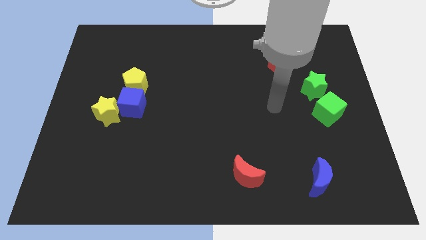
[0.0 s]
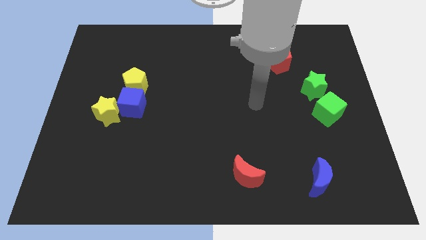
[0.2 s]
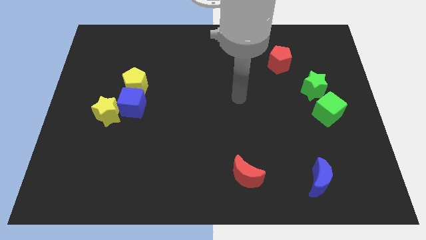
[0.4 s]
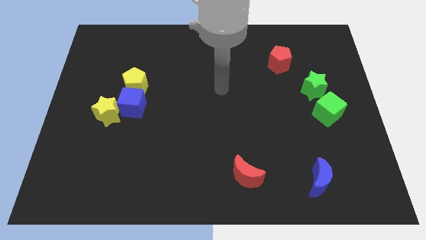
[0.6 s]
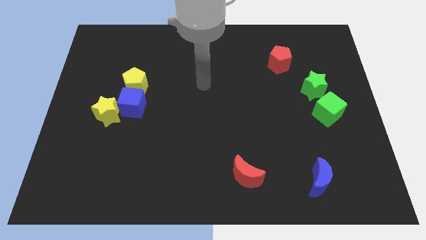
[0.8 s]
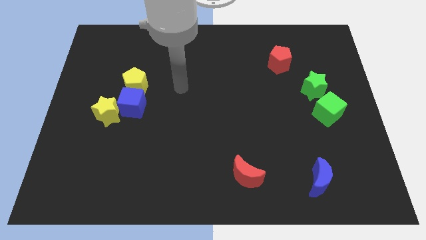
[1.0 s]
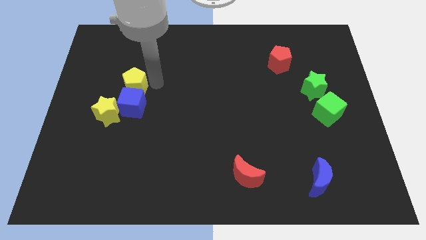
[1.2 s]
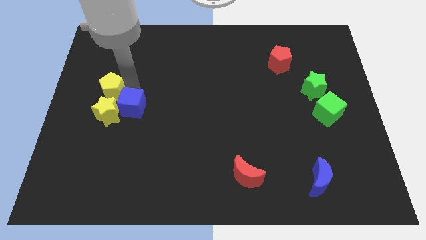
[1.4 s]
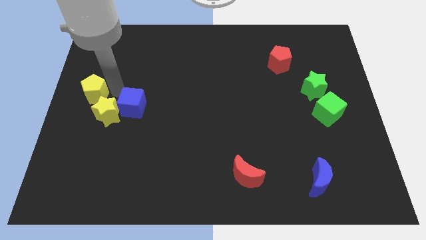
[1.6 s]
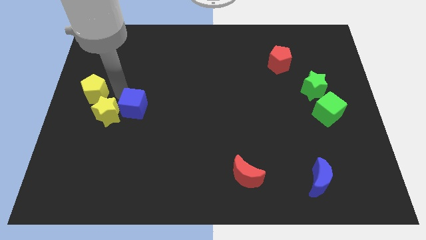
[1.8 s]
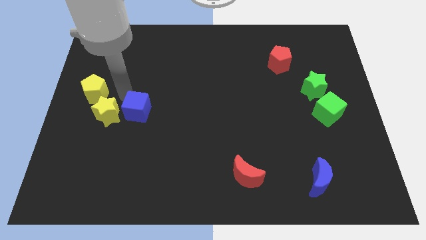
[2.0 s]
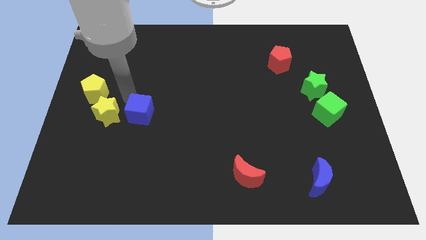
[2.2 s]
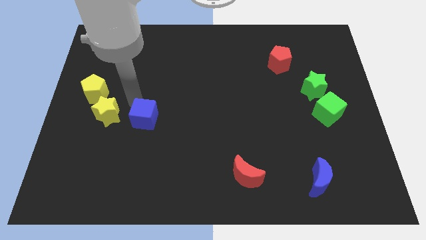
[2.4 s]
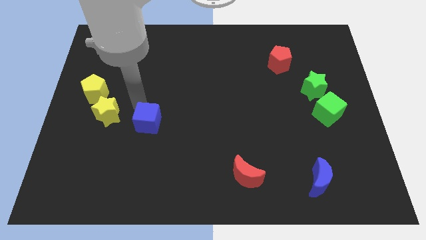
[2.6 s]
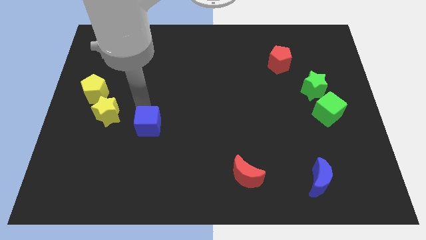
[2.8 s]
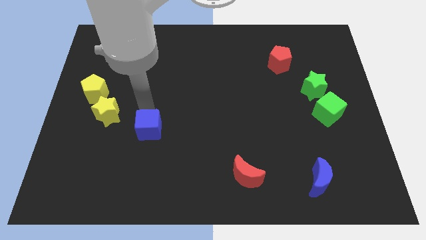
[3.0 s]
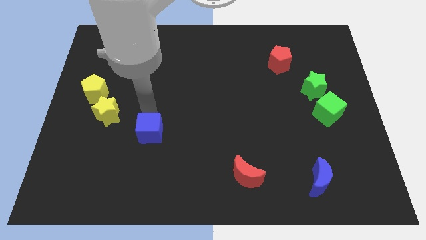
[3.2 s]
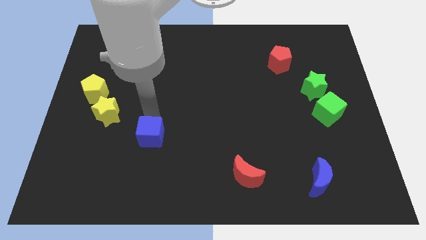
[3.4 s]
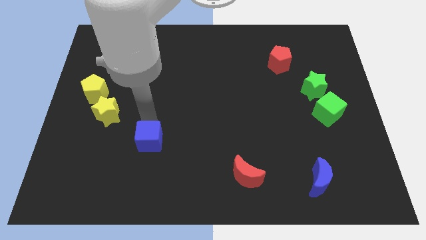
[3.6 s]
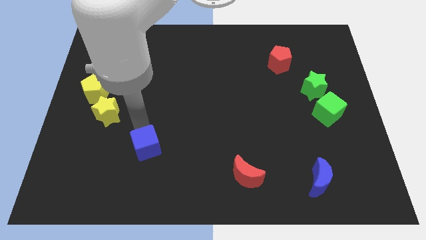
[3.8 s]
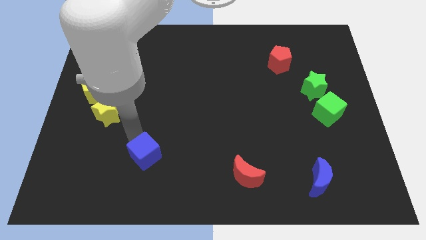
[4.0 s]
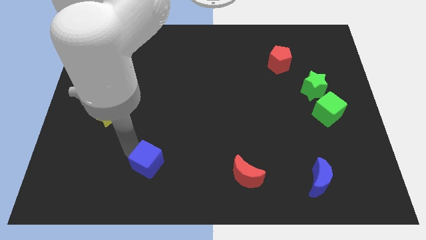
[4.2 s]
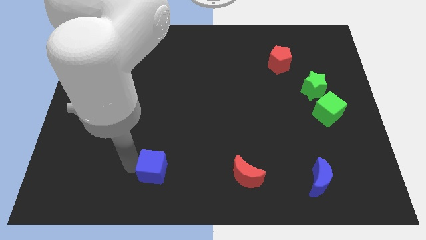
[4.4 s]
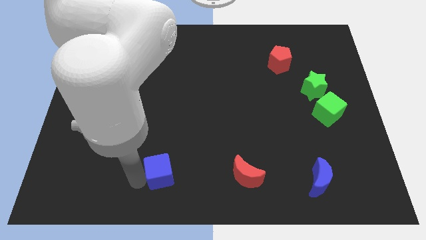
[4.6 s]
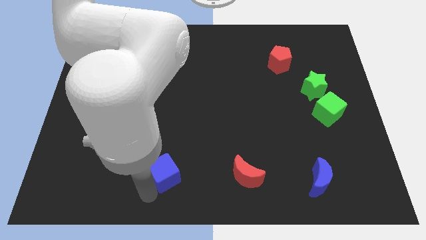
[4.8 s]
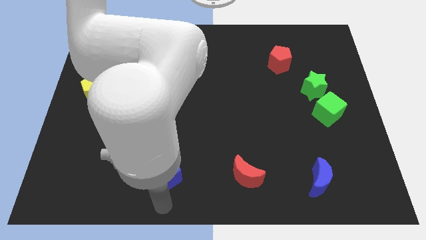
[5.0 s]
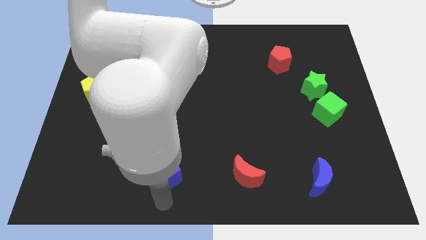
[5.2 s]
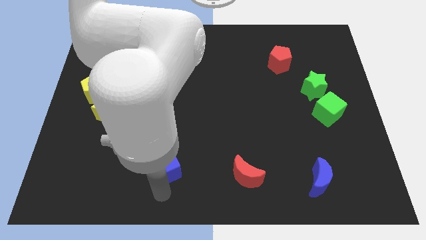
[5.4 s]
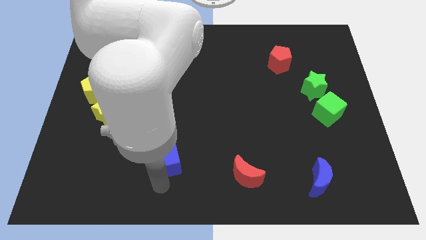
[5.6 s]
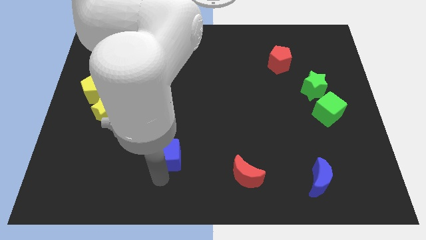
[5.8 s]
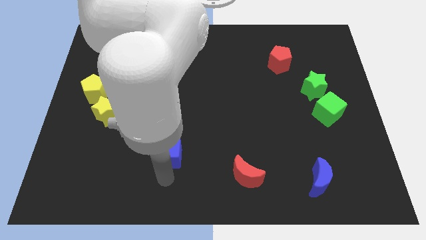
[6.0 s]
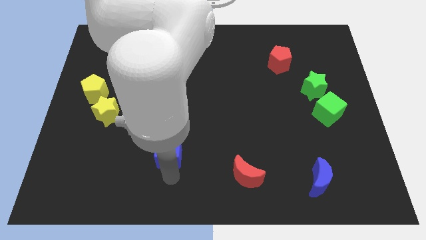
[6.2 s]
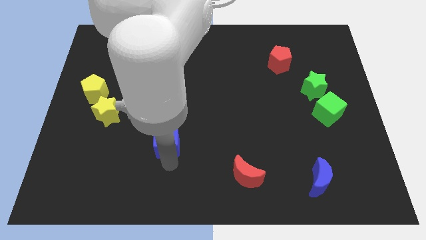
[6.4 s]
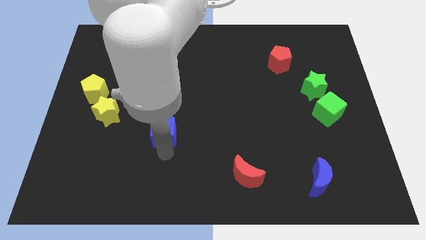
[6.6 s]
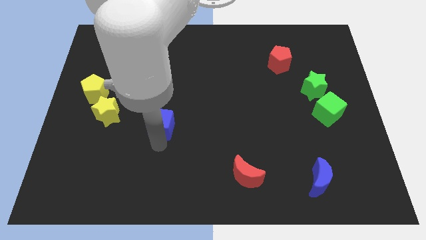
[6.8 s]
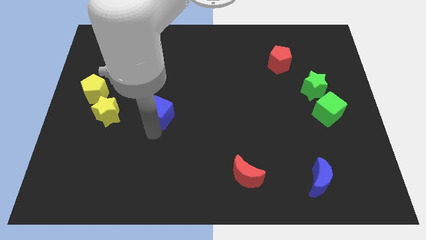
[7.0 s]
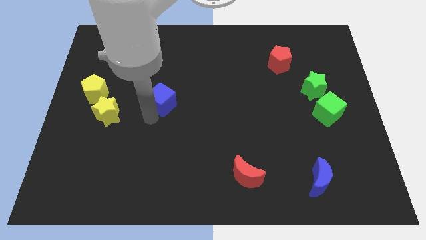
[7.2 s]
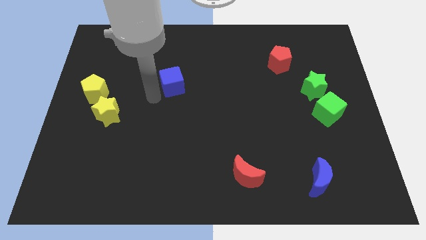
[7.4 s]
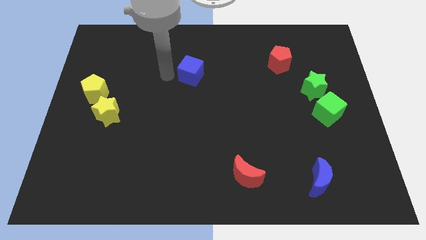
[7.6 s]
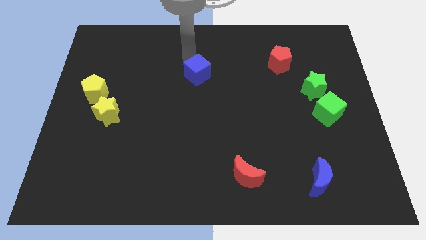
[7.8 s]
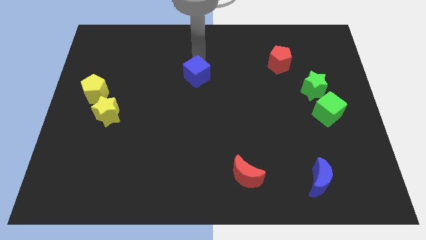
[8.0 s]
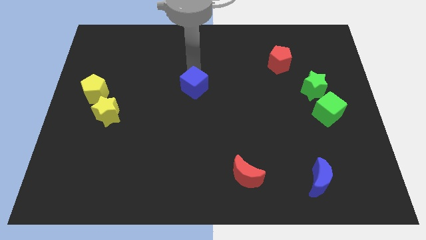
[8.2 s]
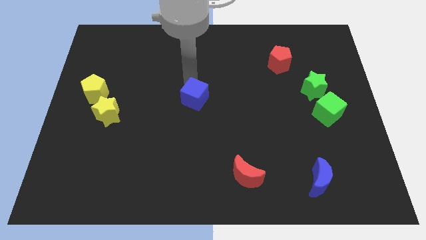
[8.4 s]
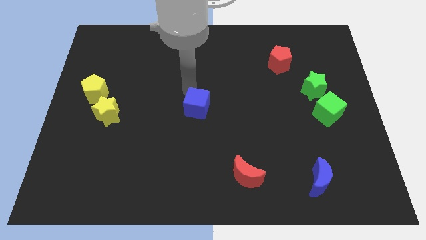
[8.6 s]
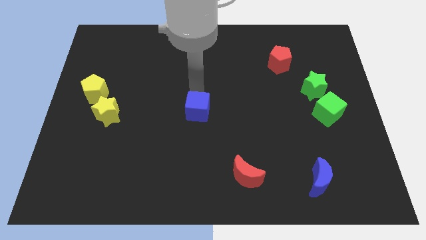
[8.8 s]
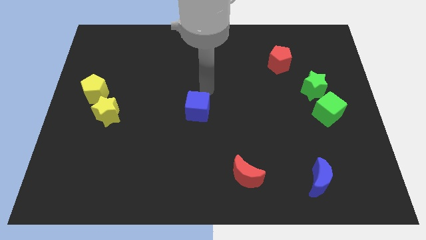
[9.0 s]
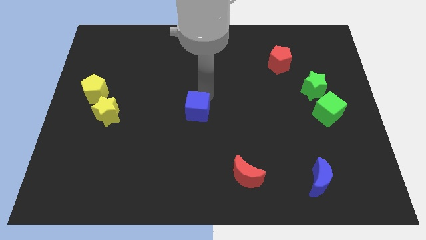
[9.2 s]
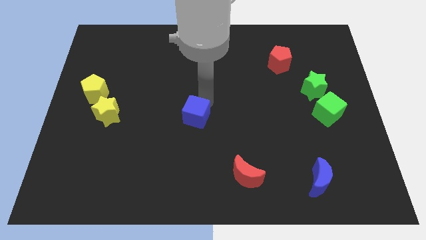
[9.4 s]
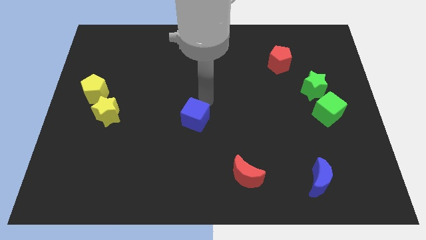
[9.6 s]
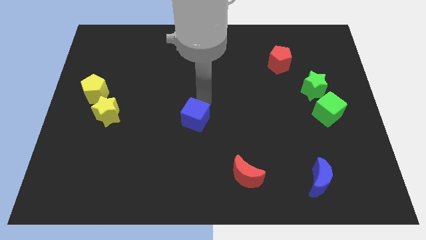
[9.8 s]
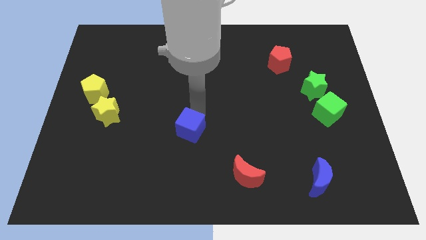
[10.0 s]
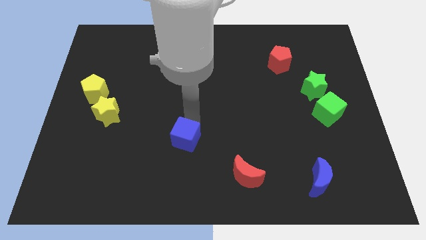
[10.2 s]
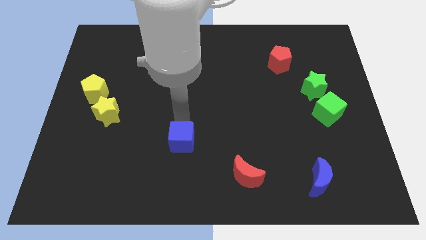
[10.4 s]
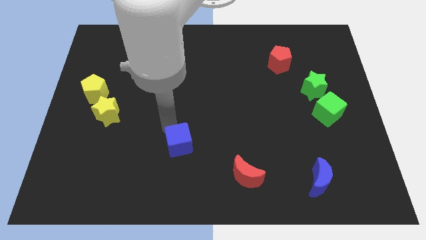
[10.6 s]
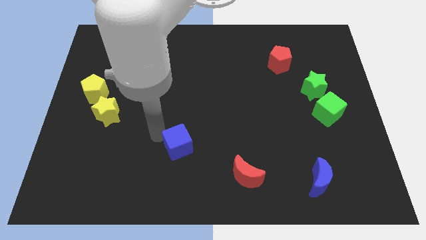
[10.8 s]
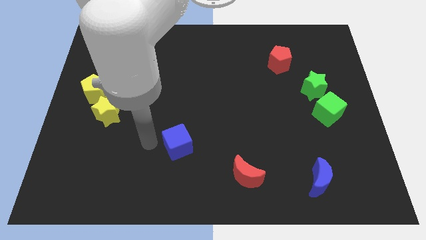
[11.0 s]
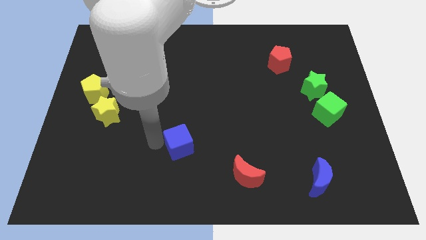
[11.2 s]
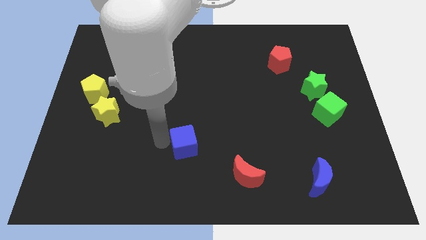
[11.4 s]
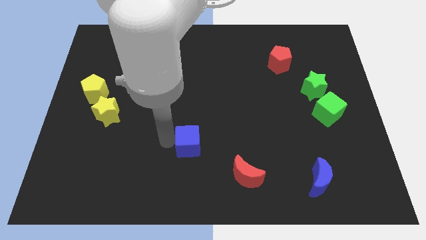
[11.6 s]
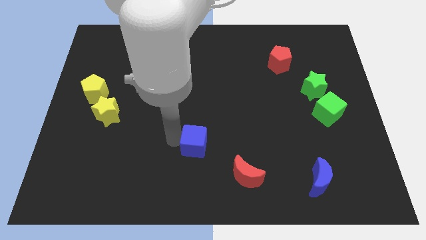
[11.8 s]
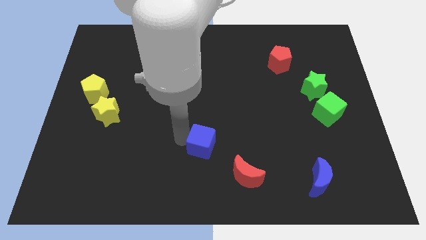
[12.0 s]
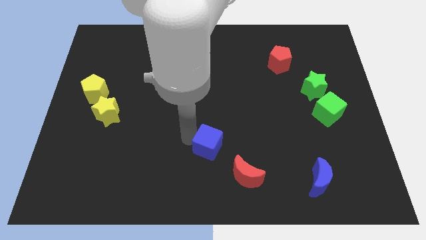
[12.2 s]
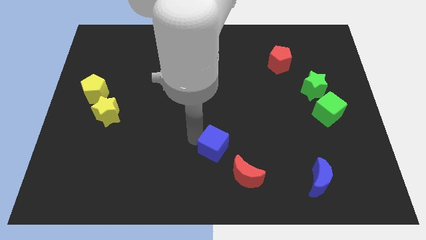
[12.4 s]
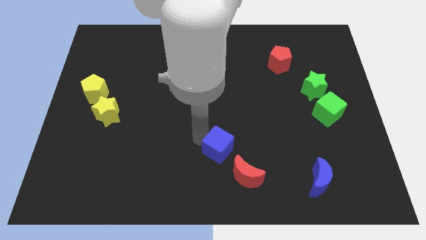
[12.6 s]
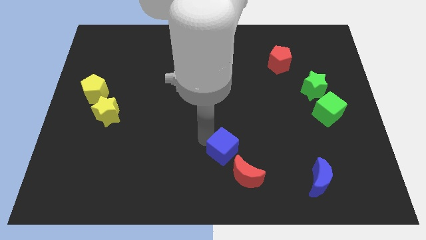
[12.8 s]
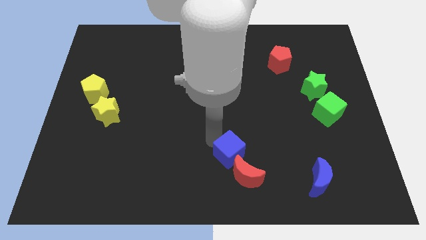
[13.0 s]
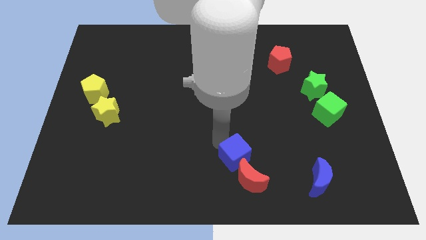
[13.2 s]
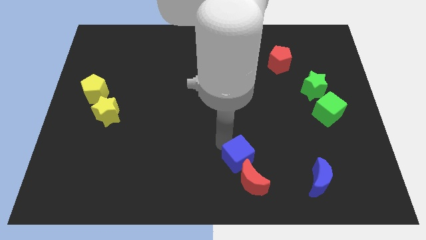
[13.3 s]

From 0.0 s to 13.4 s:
slide the blue cube close to the red moon

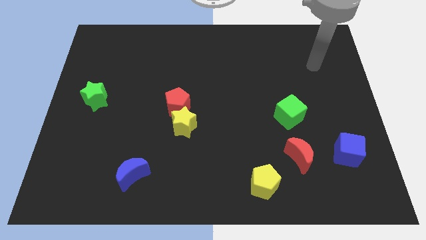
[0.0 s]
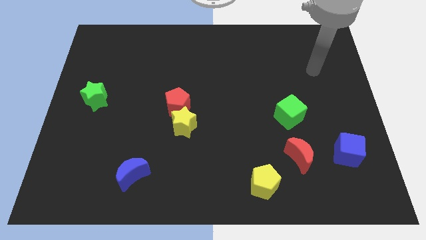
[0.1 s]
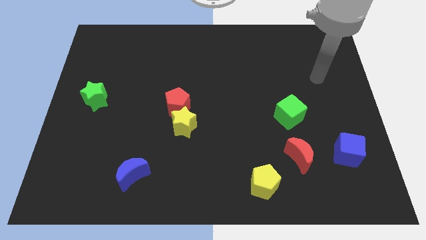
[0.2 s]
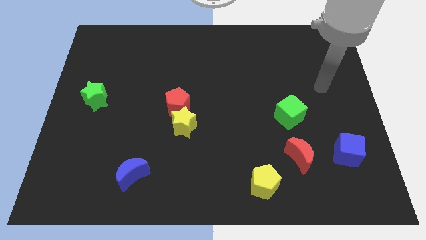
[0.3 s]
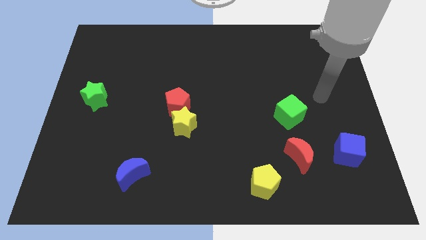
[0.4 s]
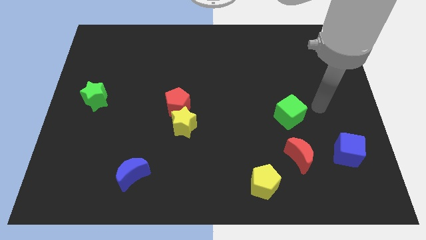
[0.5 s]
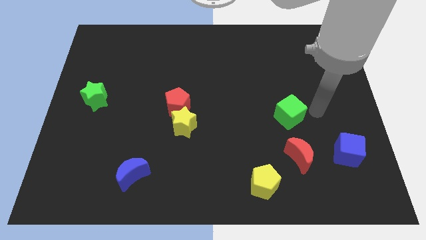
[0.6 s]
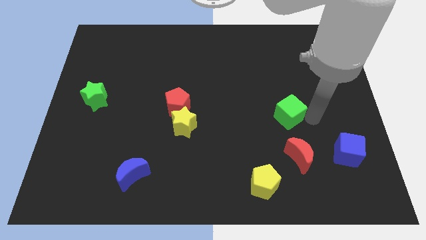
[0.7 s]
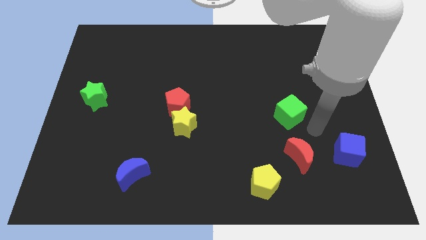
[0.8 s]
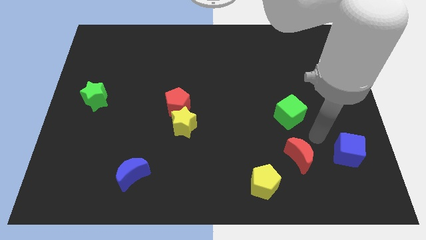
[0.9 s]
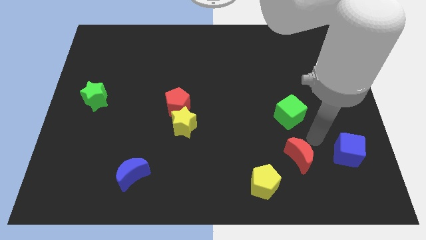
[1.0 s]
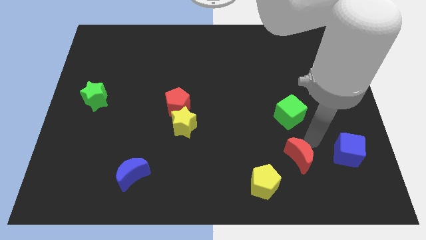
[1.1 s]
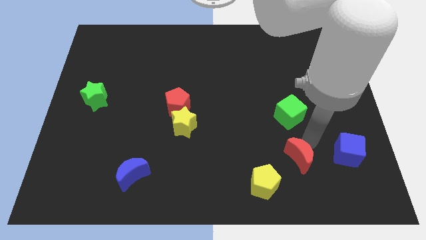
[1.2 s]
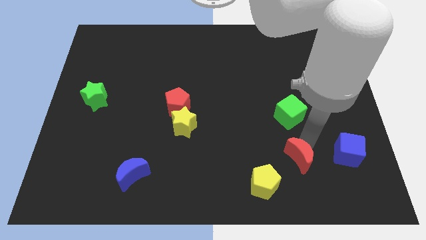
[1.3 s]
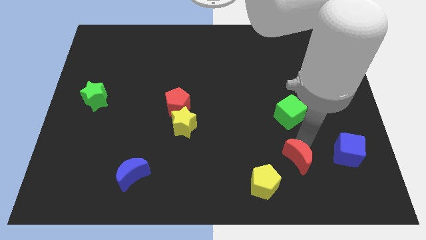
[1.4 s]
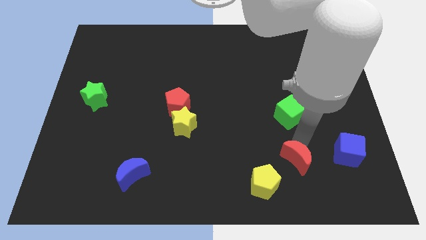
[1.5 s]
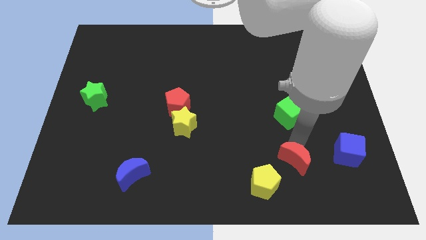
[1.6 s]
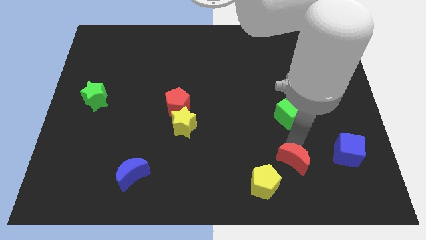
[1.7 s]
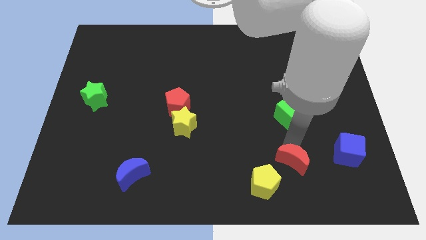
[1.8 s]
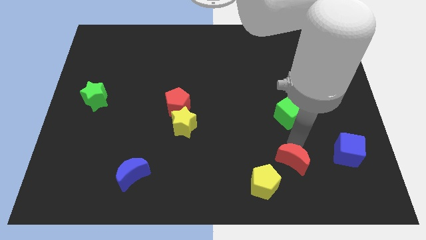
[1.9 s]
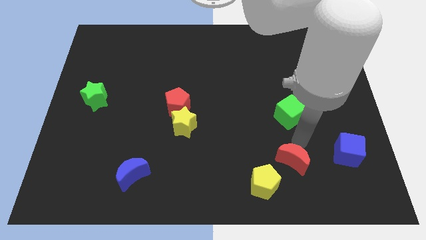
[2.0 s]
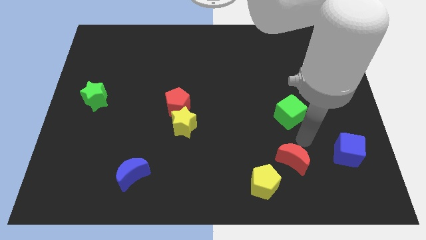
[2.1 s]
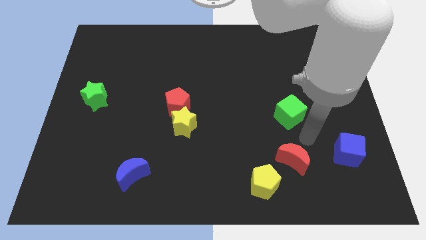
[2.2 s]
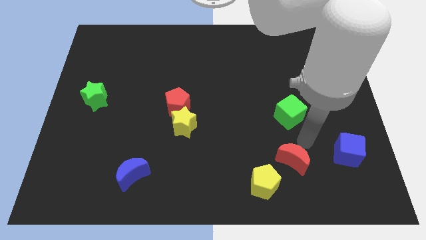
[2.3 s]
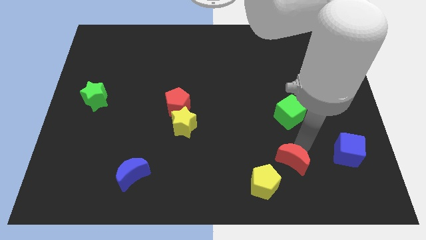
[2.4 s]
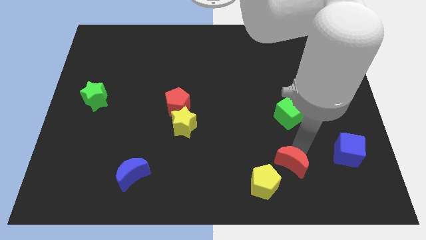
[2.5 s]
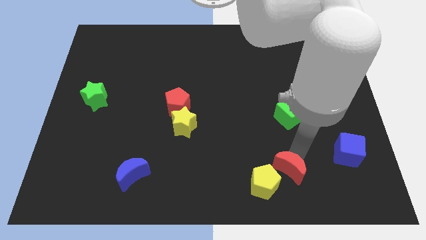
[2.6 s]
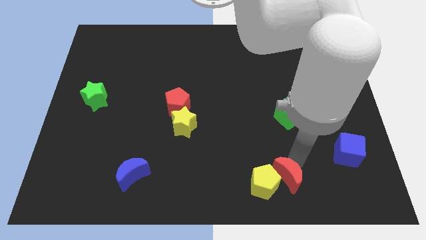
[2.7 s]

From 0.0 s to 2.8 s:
slide the red moon close to the yellow pentagon
